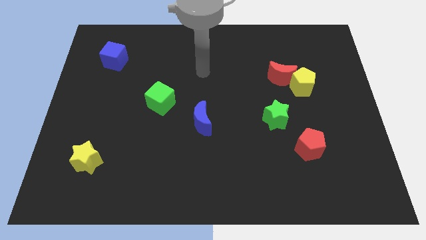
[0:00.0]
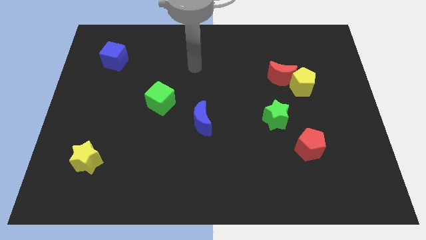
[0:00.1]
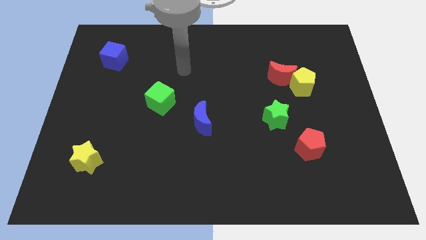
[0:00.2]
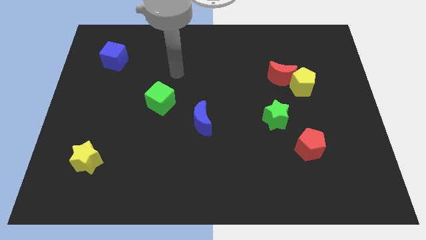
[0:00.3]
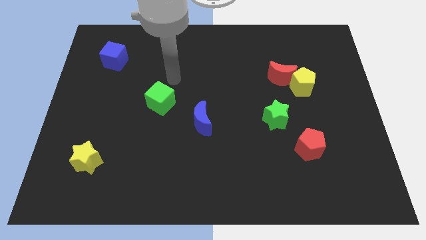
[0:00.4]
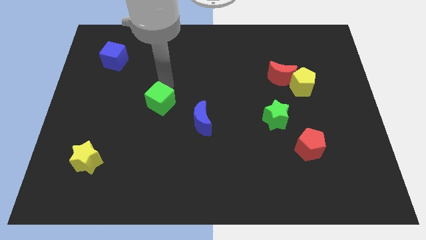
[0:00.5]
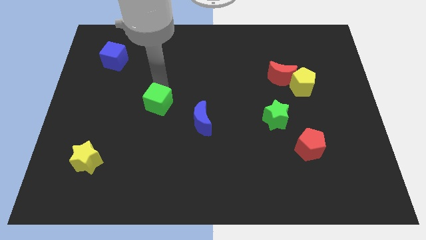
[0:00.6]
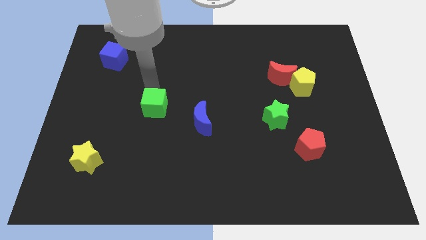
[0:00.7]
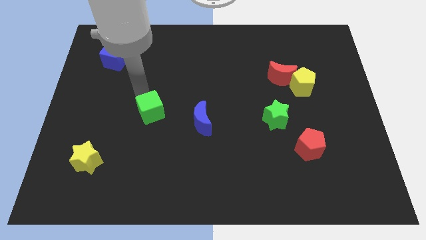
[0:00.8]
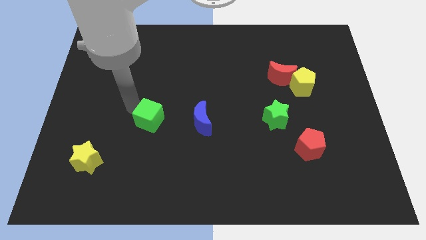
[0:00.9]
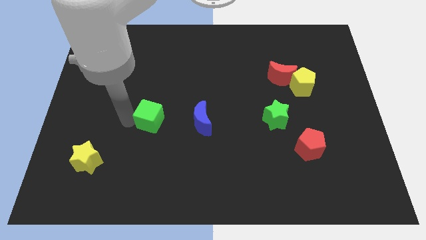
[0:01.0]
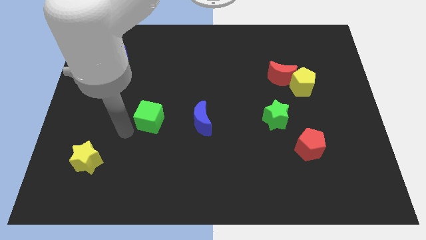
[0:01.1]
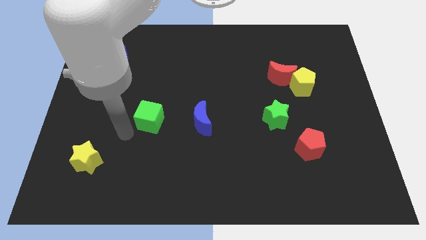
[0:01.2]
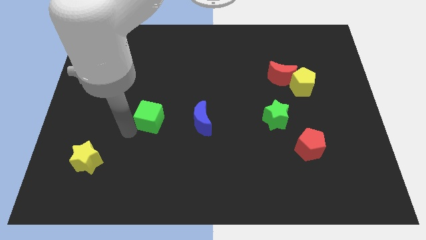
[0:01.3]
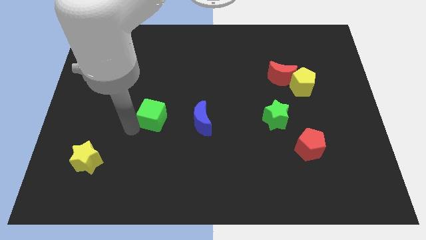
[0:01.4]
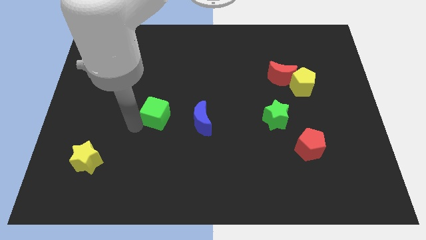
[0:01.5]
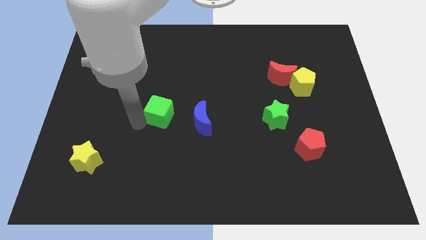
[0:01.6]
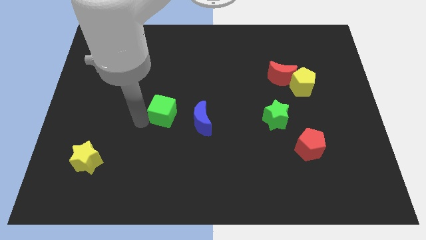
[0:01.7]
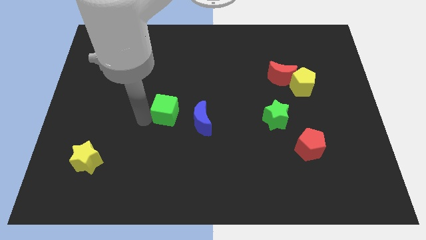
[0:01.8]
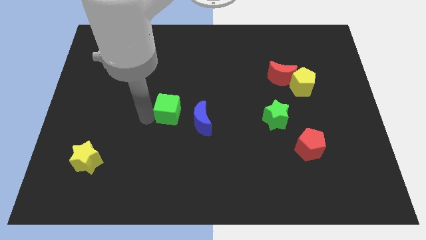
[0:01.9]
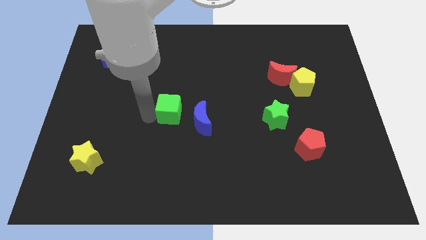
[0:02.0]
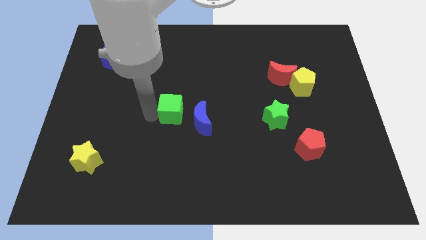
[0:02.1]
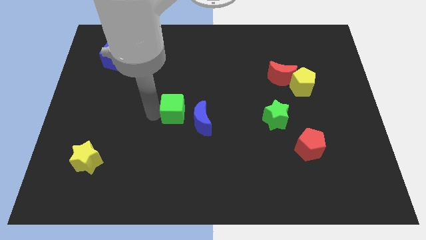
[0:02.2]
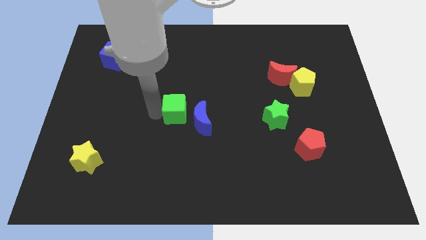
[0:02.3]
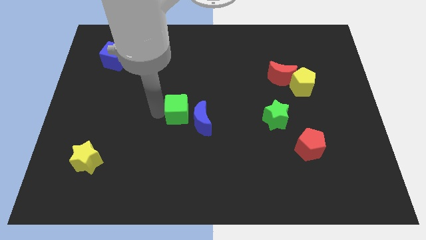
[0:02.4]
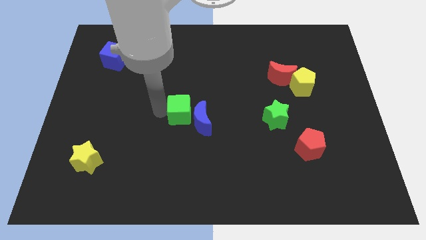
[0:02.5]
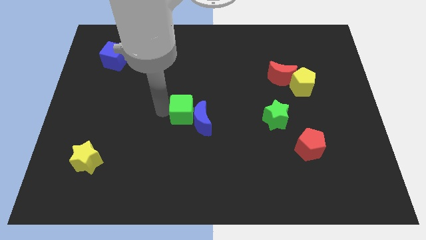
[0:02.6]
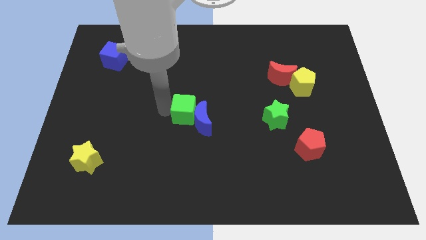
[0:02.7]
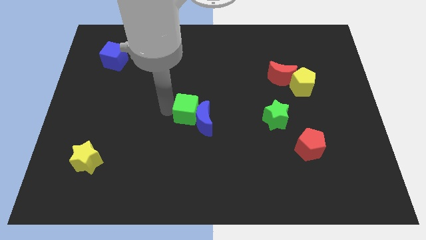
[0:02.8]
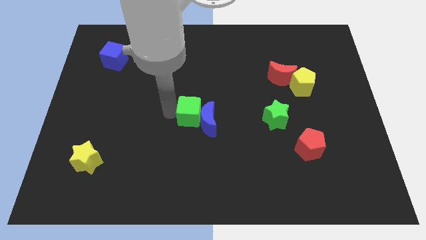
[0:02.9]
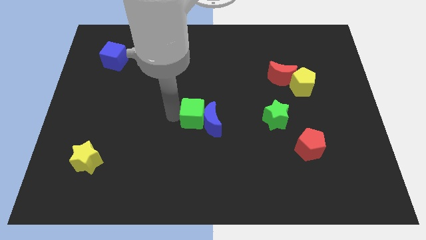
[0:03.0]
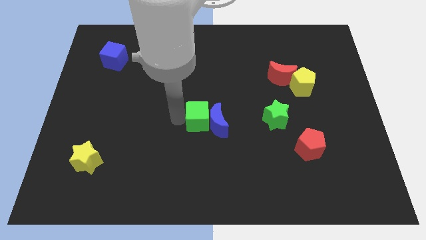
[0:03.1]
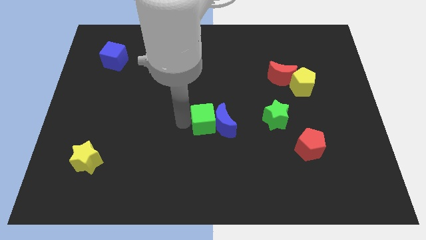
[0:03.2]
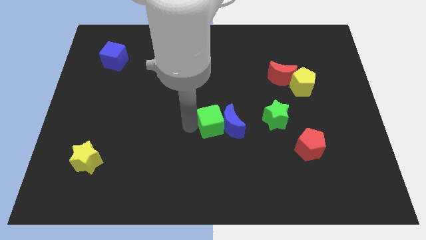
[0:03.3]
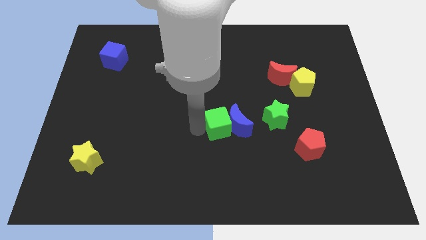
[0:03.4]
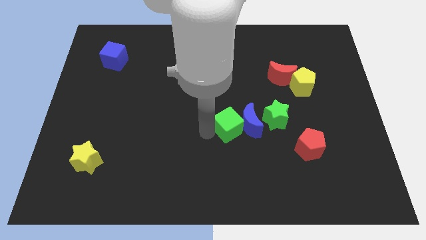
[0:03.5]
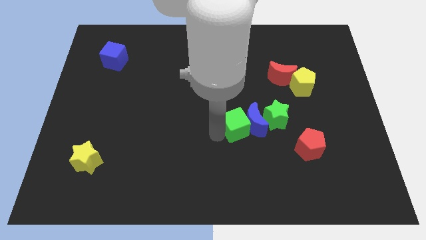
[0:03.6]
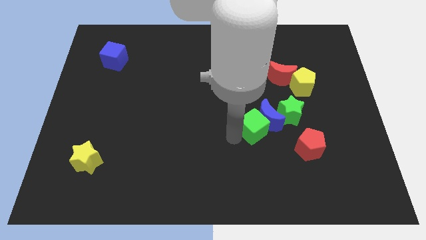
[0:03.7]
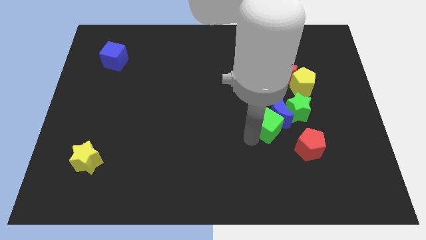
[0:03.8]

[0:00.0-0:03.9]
slide the green cube right

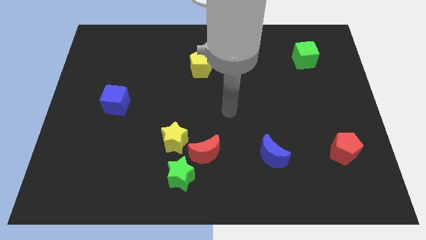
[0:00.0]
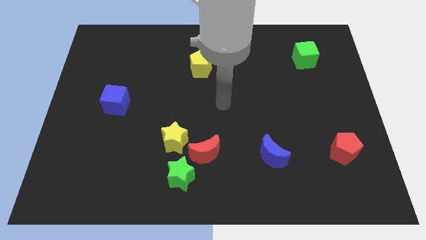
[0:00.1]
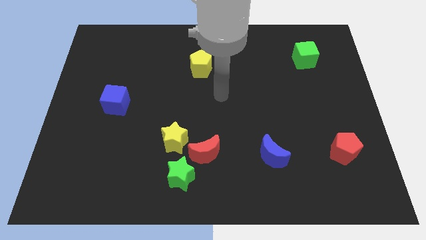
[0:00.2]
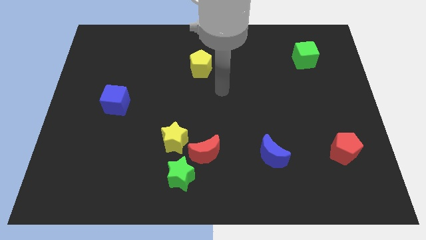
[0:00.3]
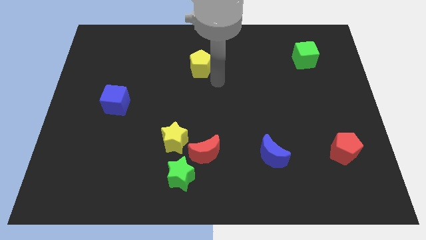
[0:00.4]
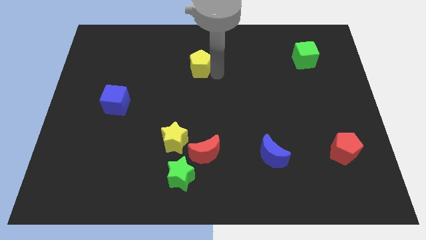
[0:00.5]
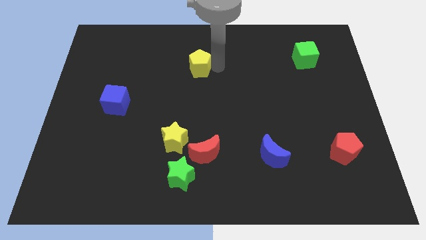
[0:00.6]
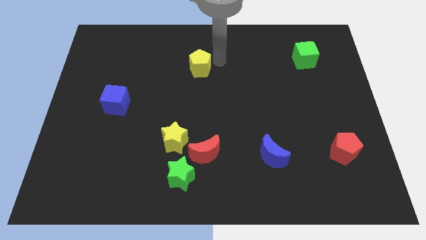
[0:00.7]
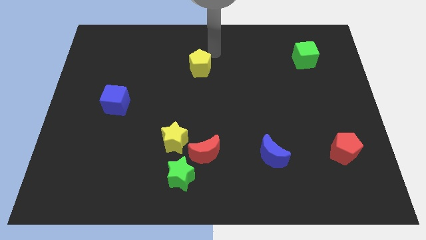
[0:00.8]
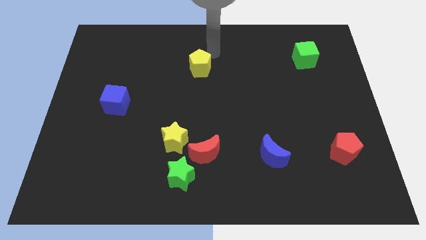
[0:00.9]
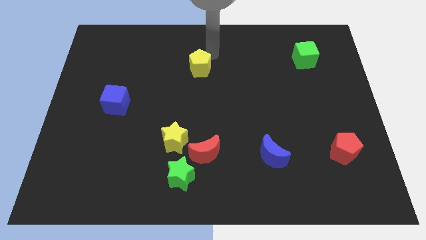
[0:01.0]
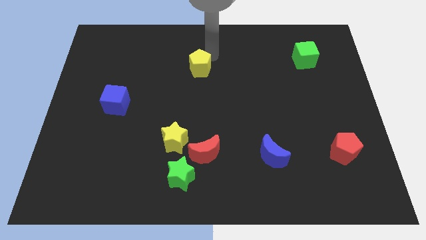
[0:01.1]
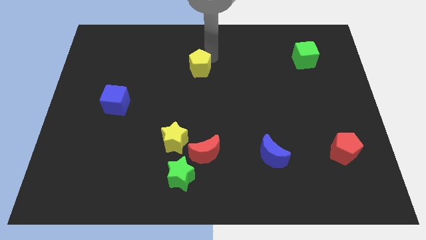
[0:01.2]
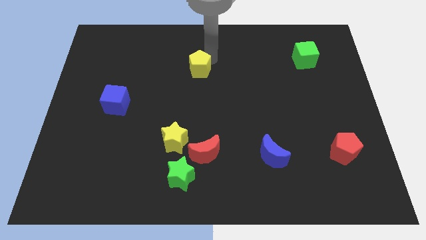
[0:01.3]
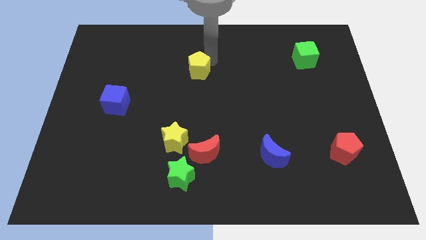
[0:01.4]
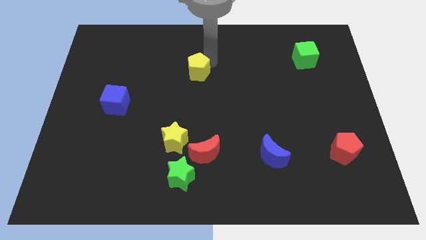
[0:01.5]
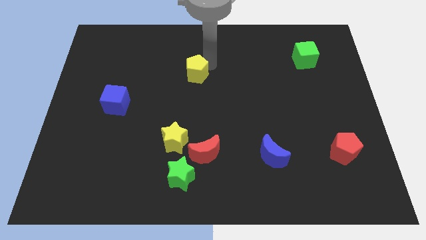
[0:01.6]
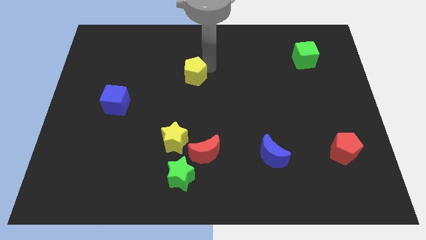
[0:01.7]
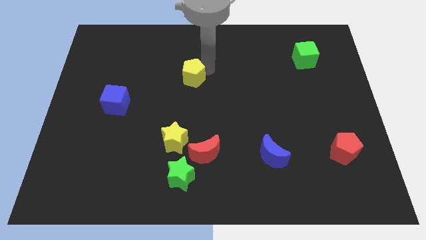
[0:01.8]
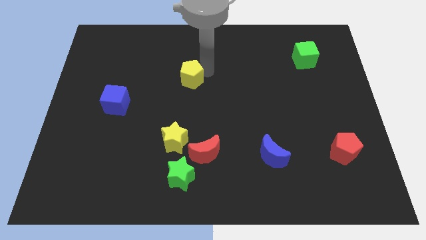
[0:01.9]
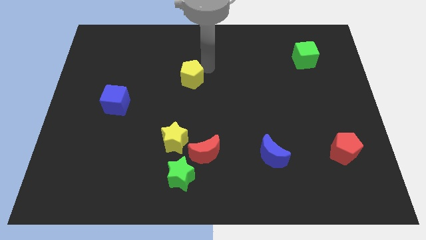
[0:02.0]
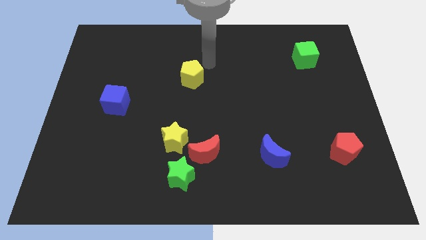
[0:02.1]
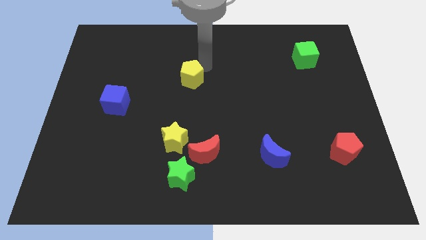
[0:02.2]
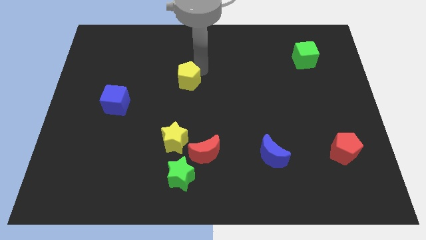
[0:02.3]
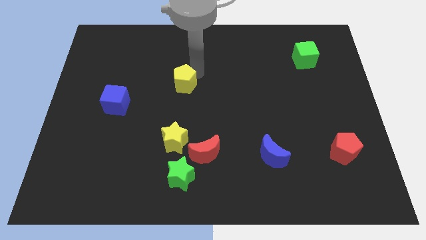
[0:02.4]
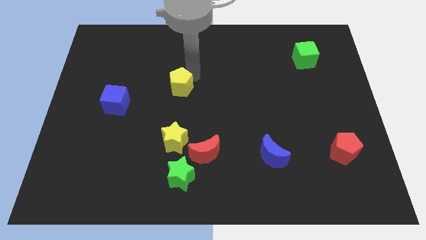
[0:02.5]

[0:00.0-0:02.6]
push the yellow pentagon slightly downwards and left diagonally

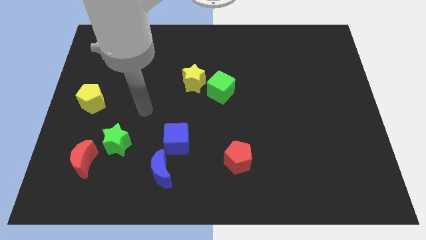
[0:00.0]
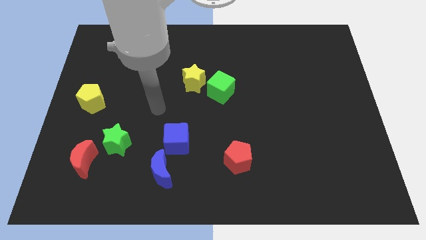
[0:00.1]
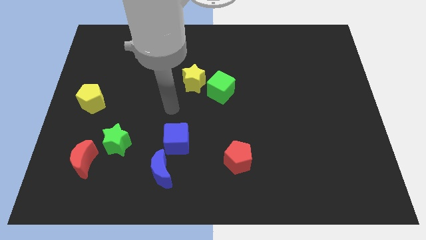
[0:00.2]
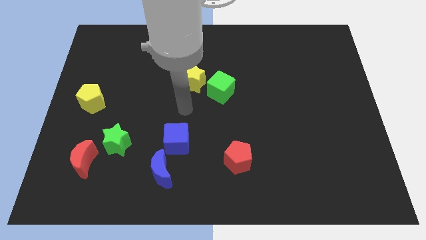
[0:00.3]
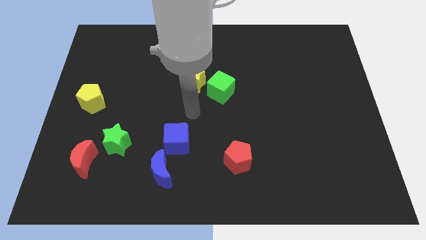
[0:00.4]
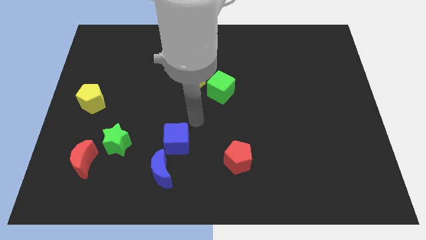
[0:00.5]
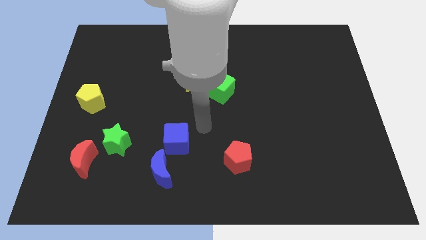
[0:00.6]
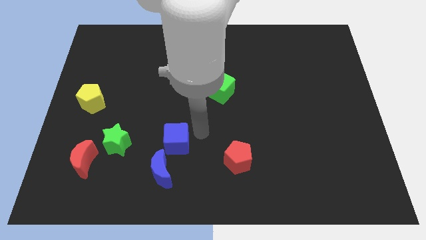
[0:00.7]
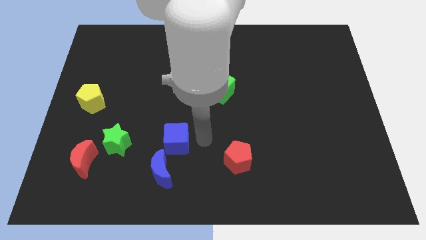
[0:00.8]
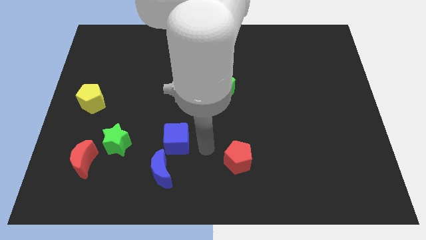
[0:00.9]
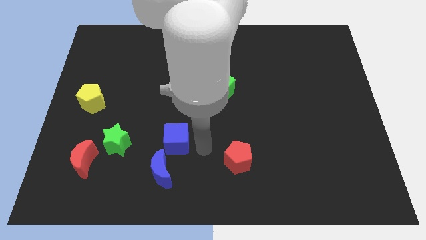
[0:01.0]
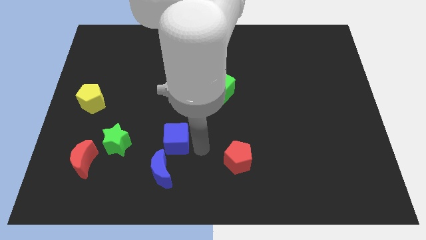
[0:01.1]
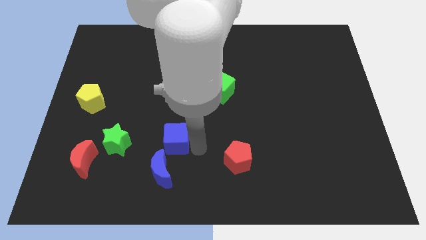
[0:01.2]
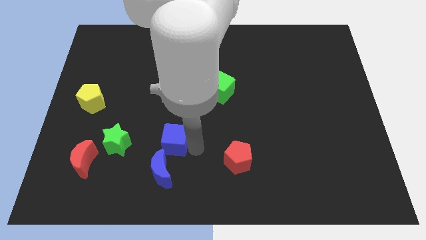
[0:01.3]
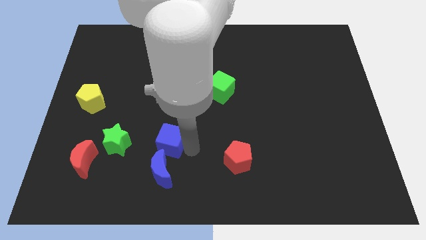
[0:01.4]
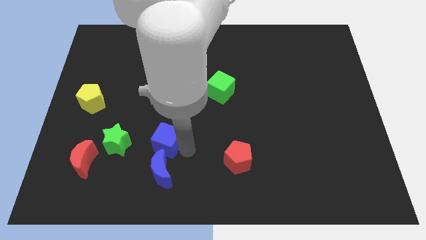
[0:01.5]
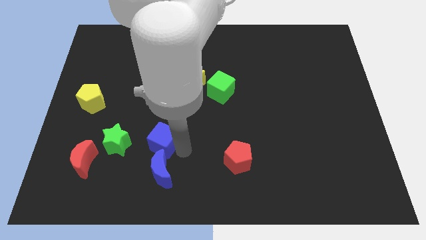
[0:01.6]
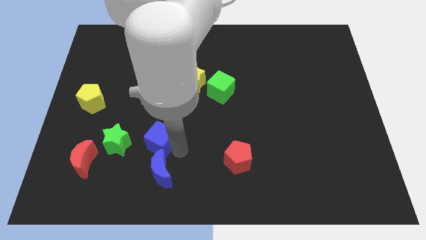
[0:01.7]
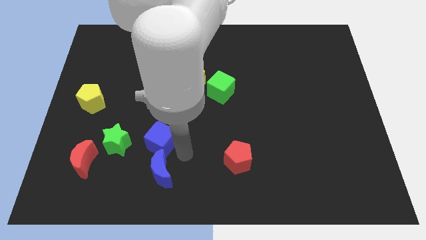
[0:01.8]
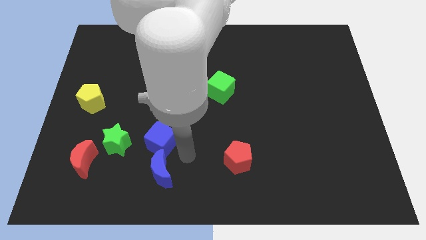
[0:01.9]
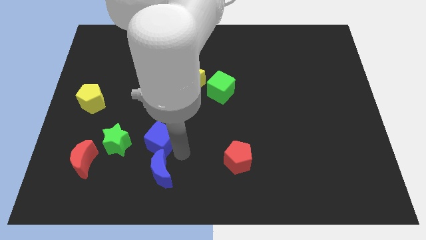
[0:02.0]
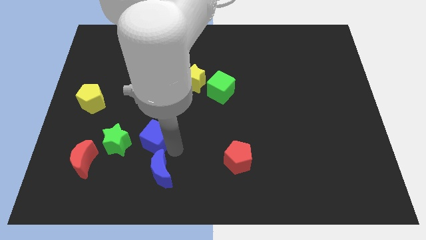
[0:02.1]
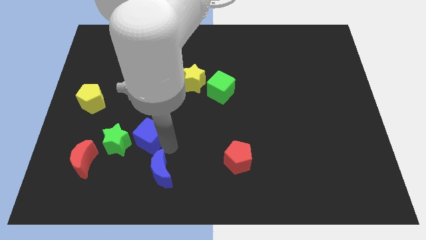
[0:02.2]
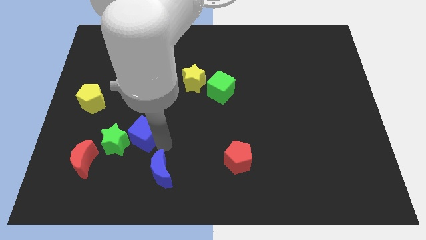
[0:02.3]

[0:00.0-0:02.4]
move the blue cube left a little bit
